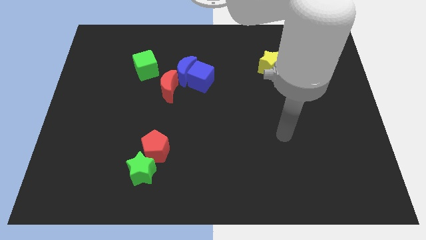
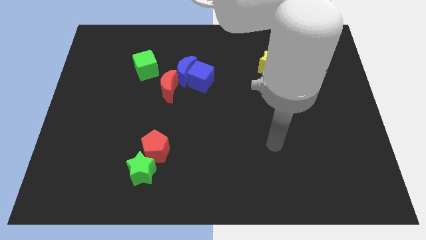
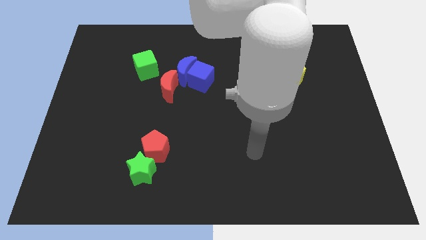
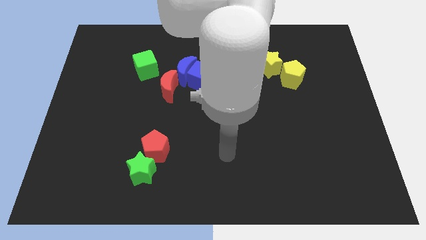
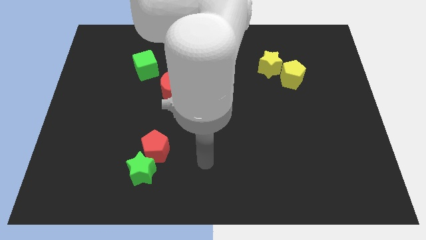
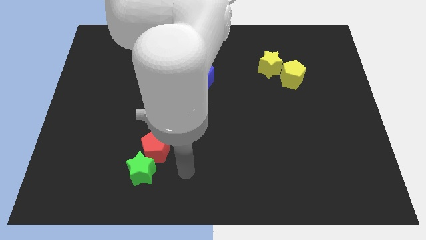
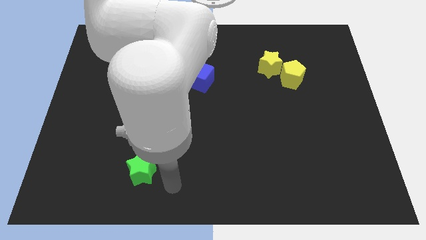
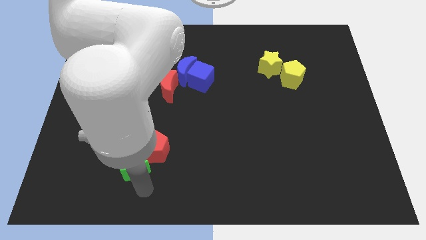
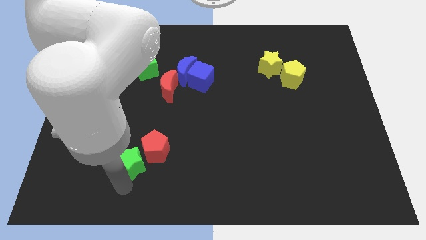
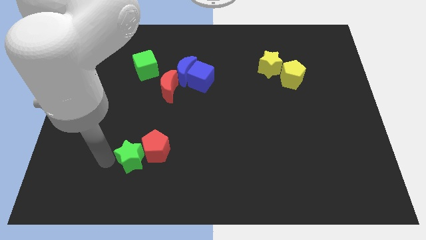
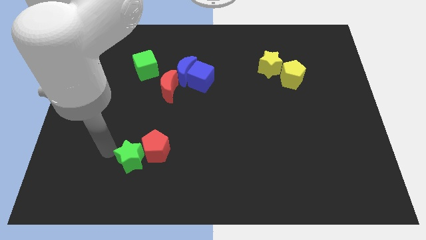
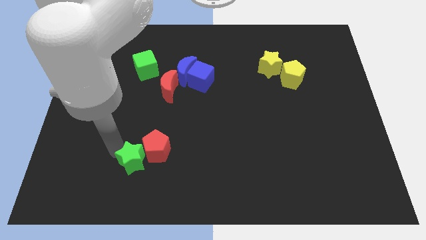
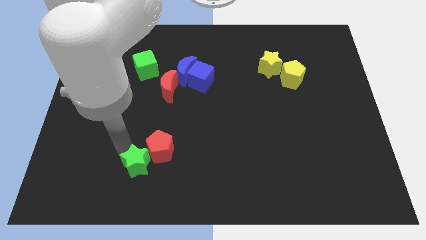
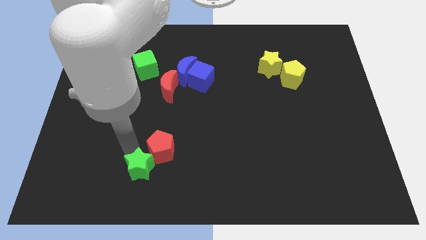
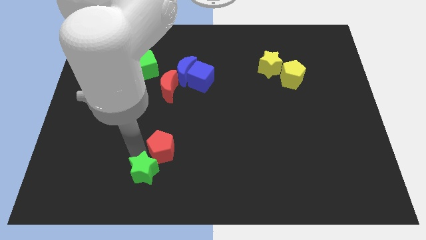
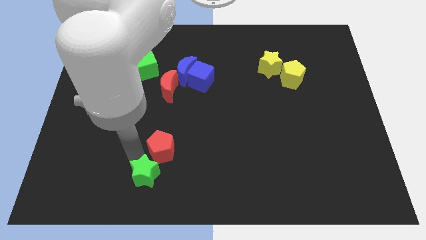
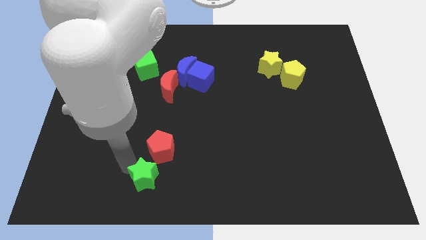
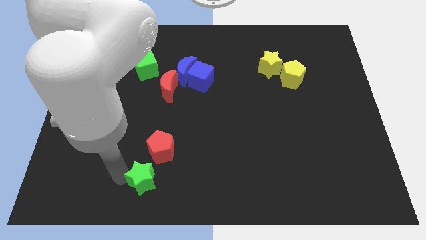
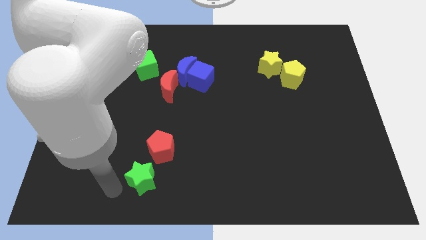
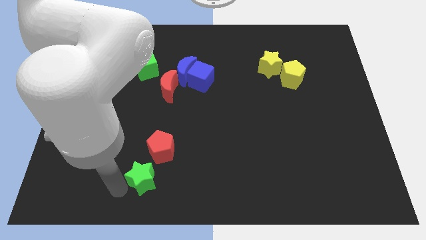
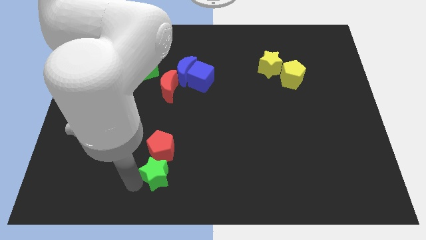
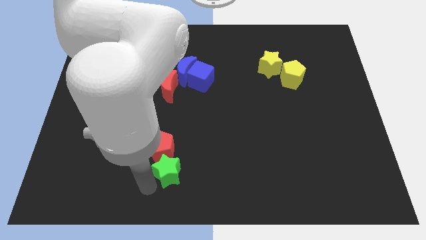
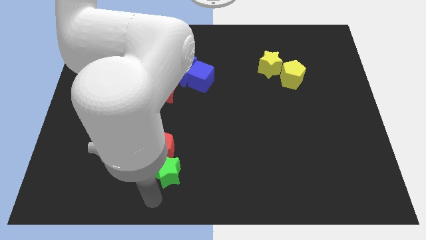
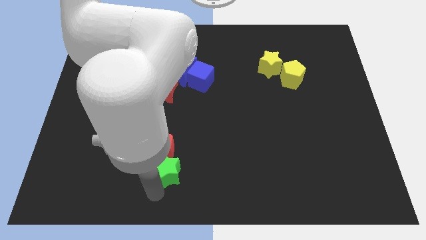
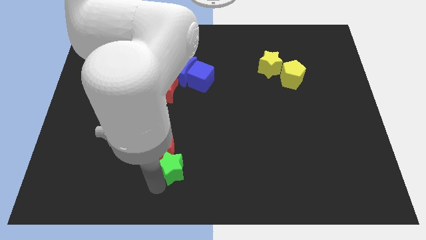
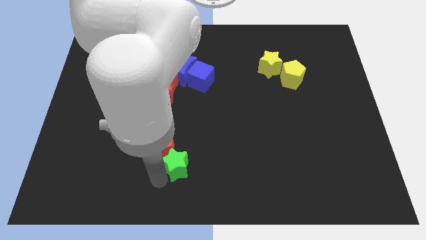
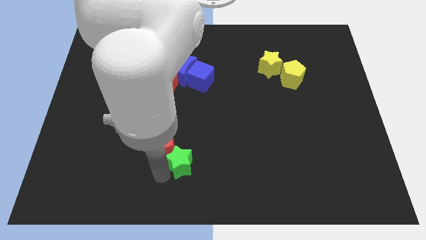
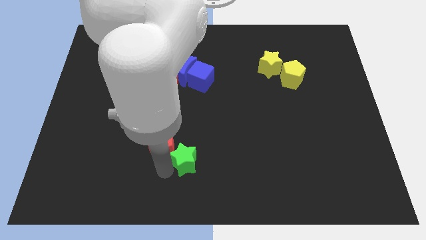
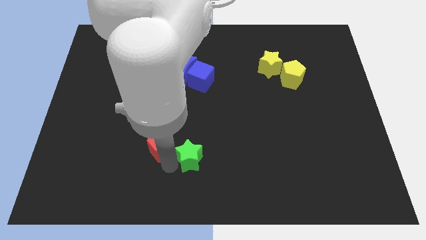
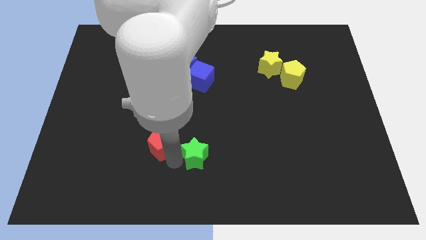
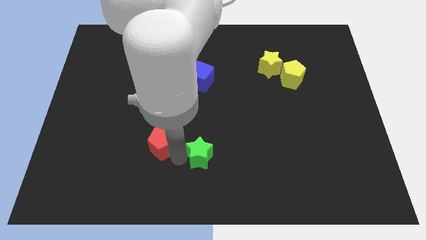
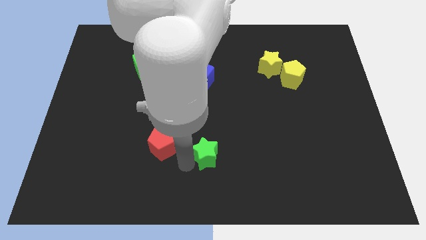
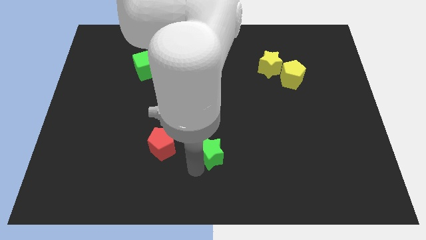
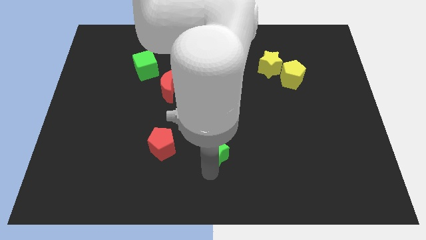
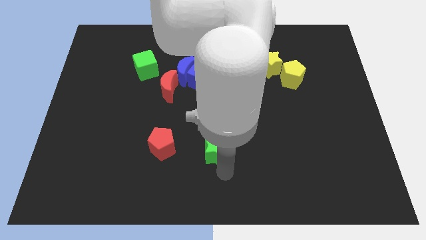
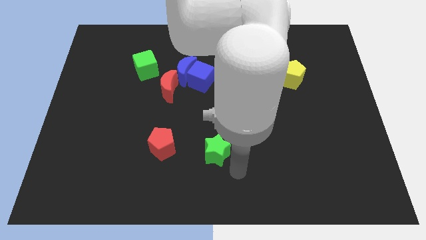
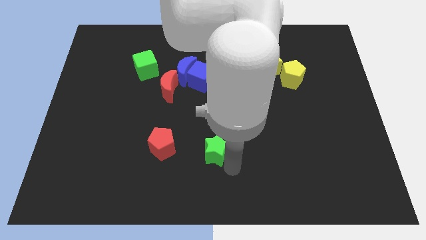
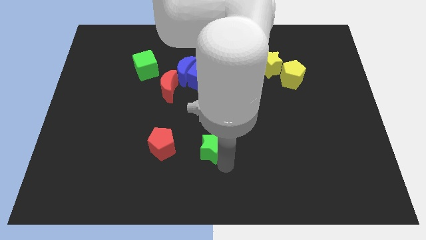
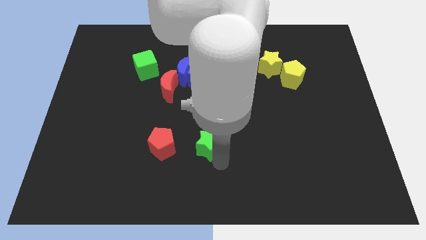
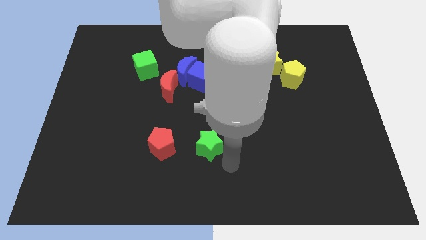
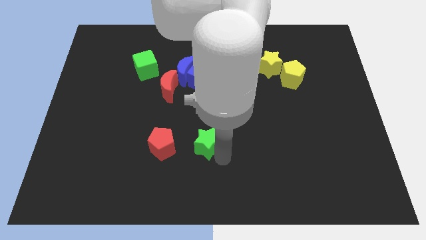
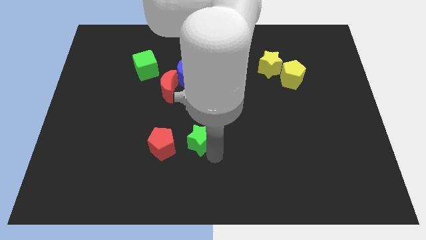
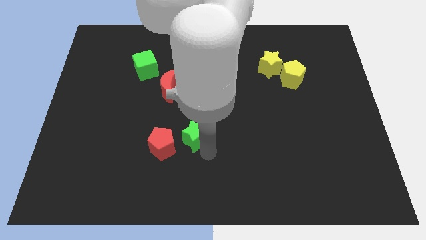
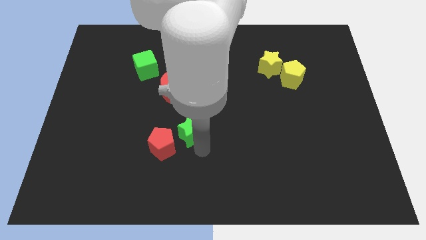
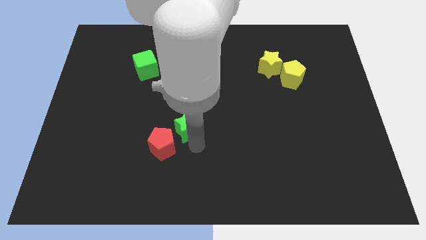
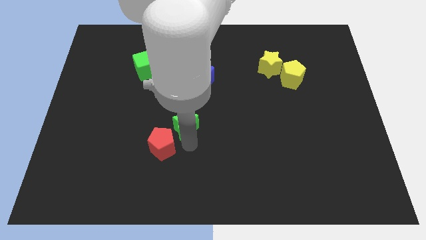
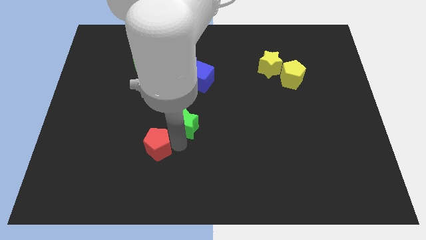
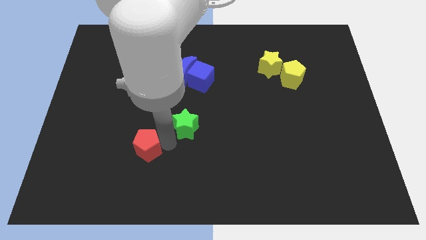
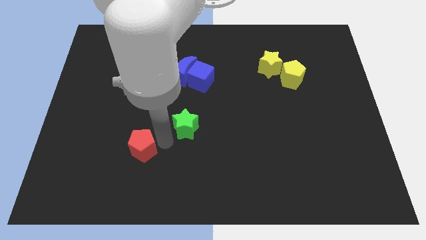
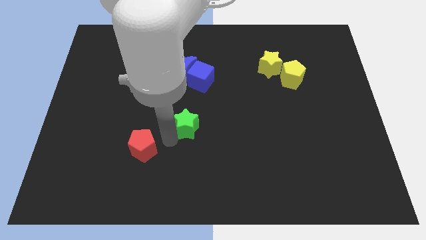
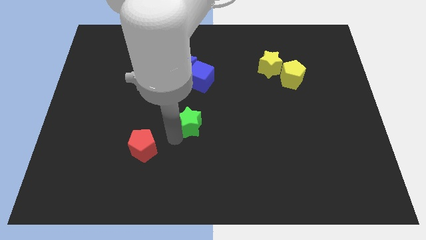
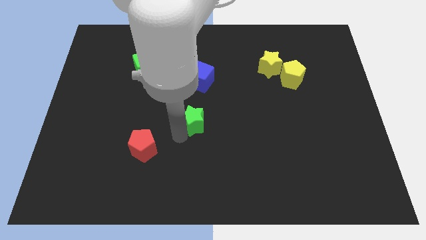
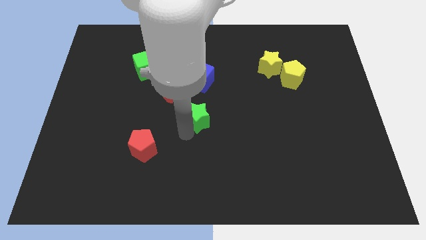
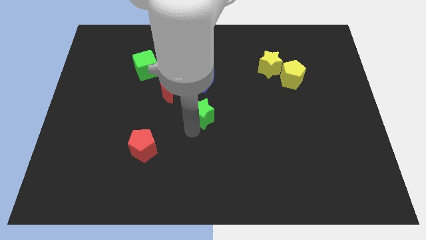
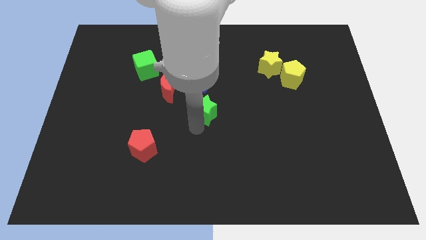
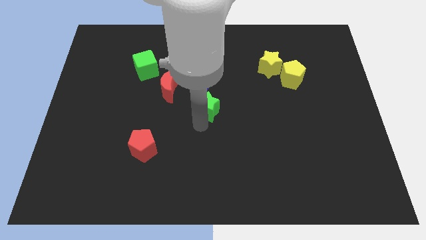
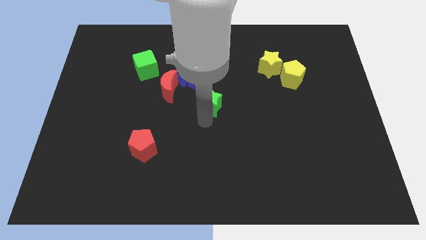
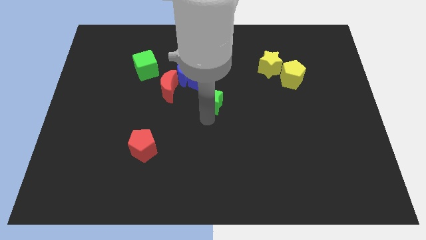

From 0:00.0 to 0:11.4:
move the green star just right of the red moon

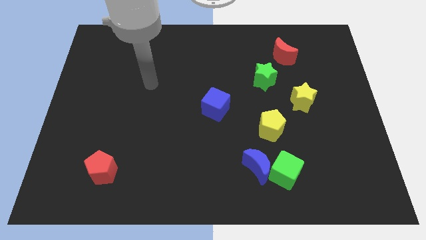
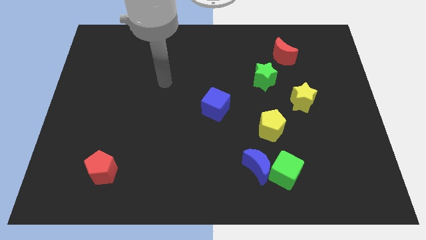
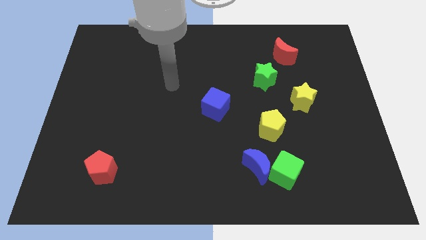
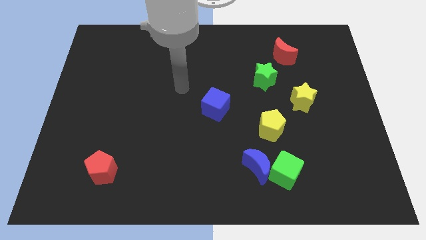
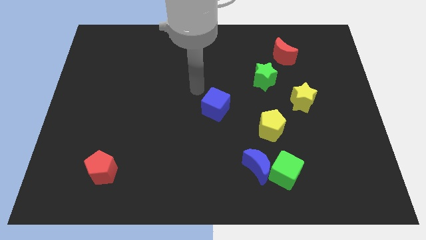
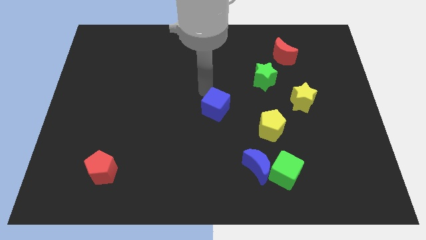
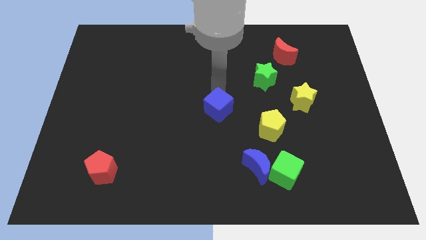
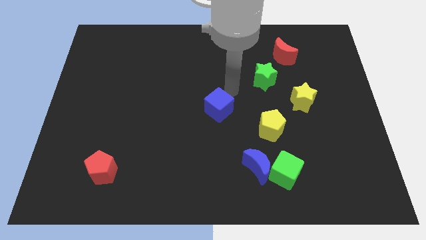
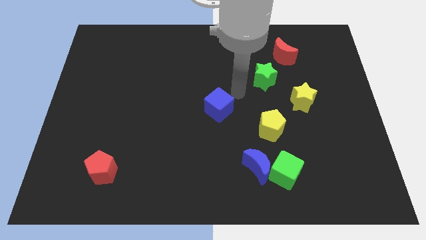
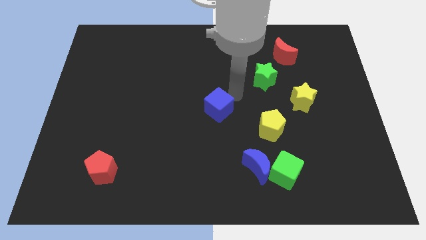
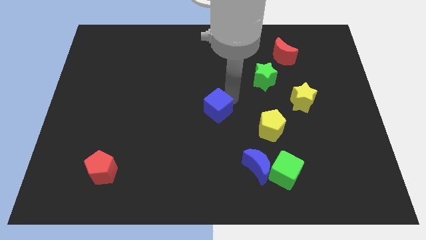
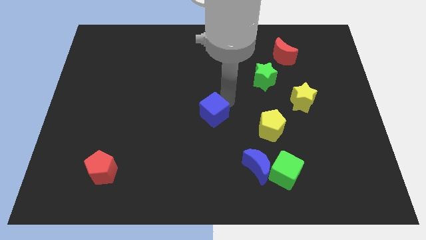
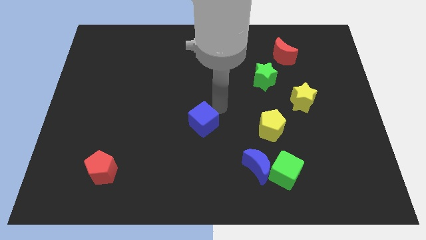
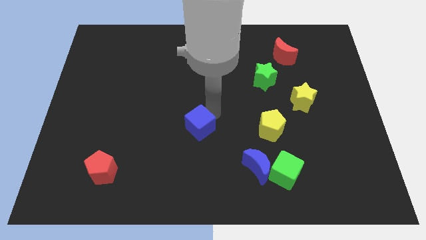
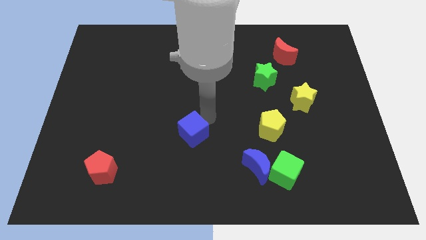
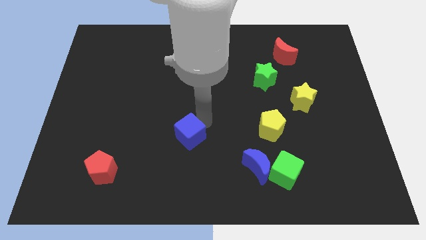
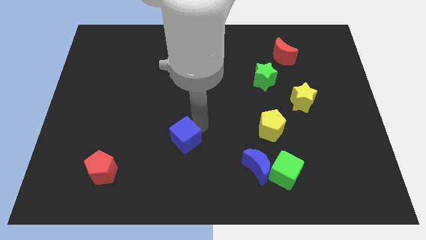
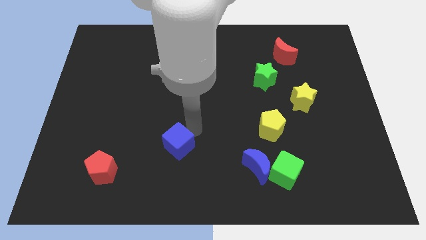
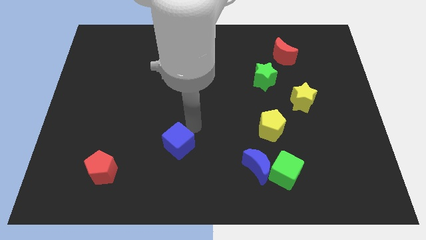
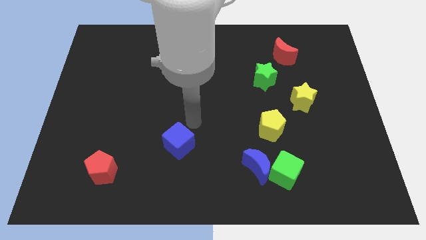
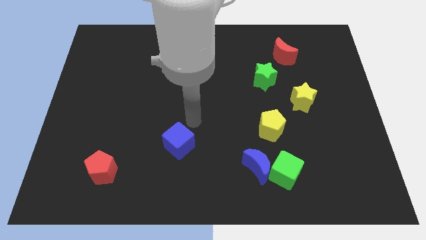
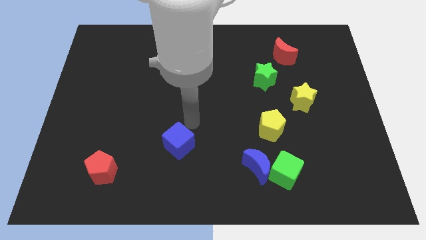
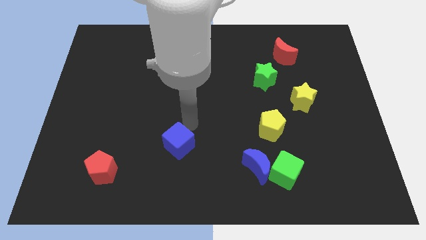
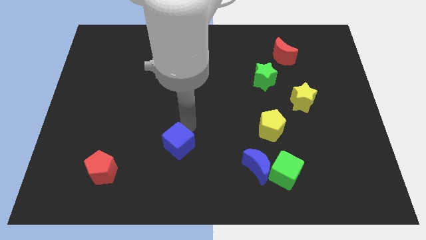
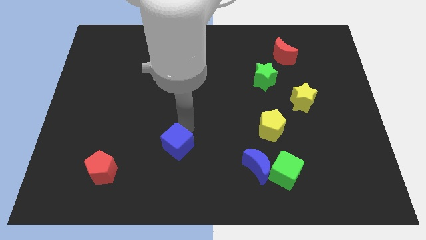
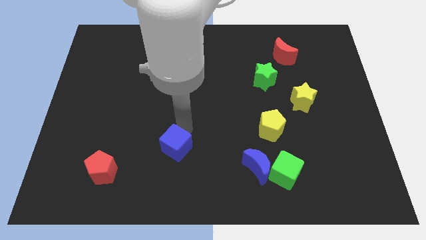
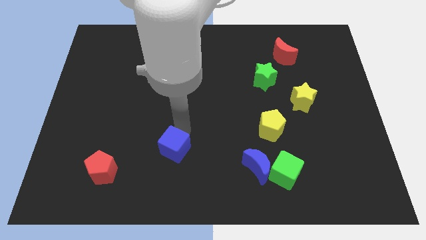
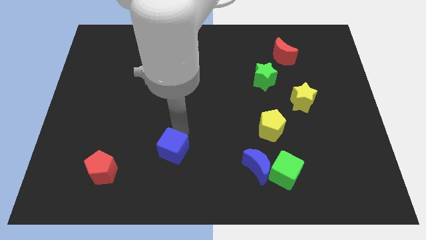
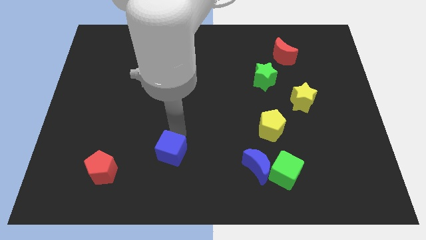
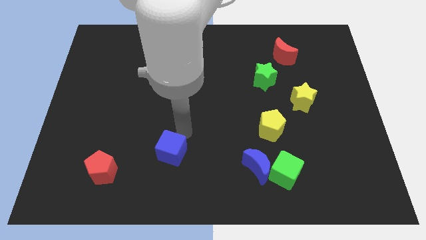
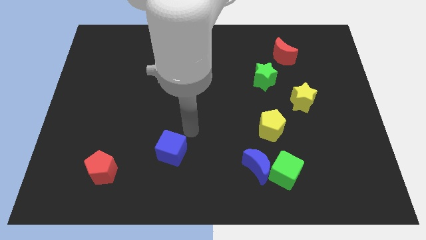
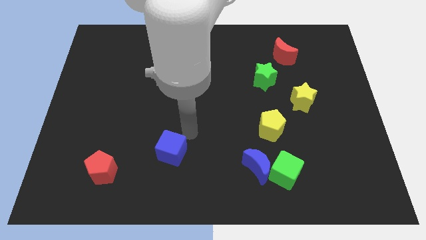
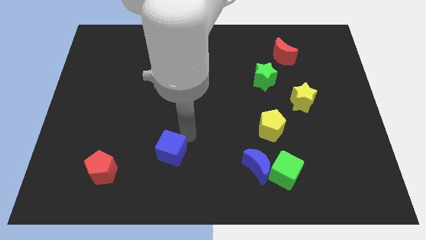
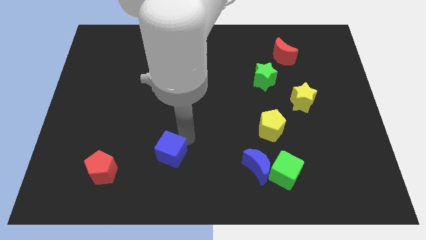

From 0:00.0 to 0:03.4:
put the blue cube just right of the red pentagon
